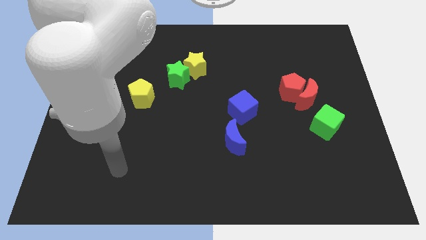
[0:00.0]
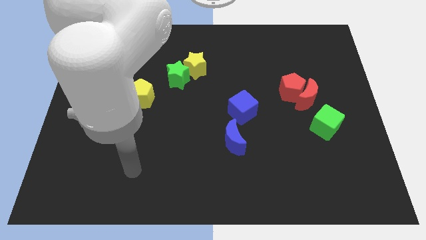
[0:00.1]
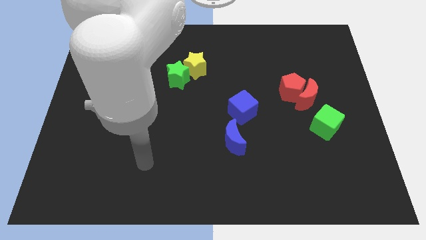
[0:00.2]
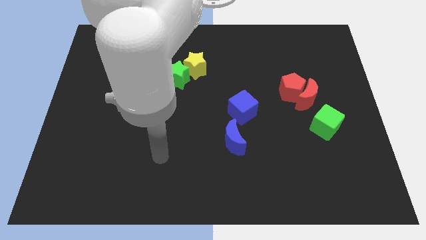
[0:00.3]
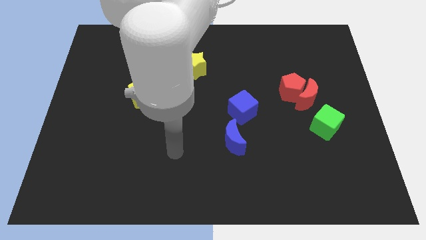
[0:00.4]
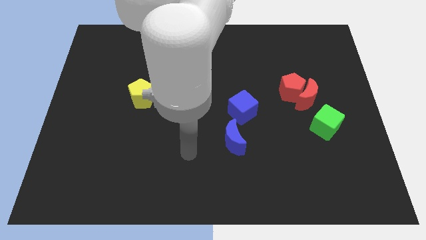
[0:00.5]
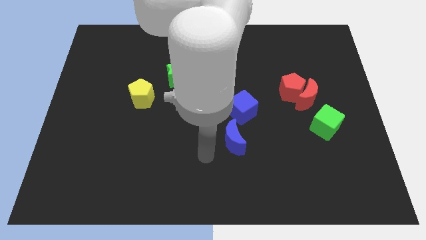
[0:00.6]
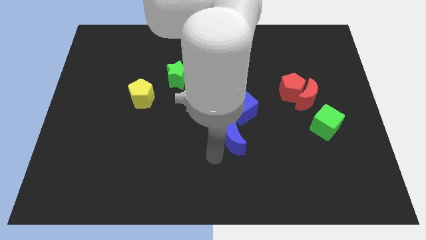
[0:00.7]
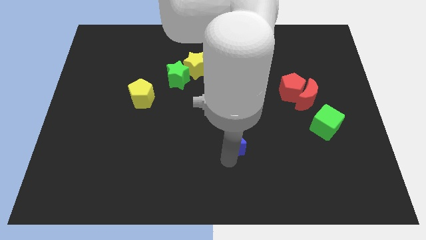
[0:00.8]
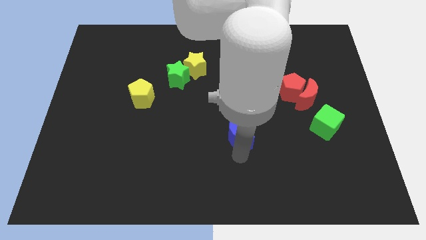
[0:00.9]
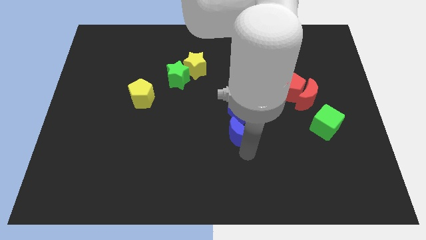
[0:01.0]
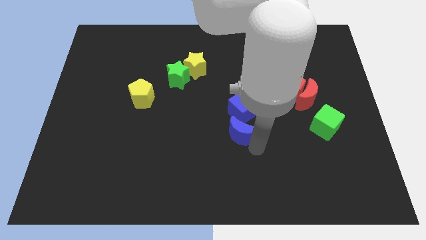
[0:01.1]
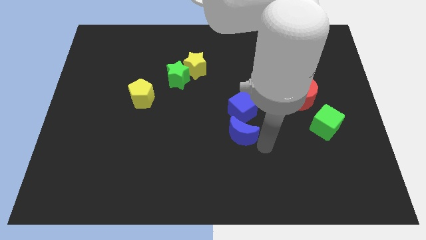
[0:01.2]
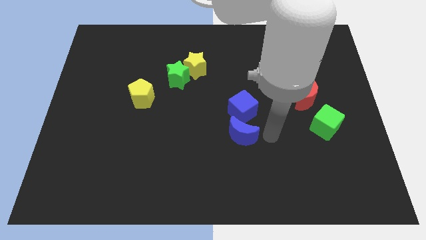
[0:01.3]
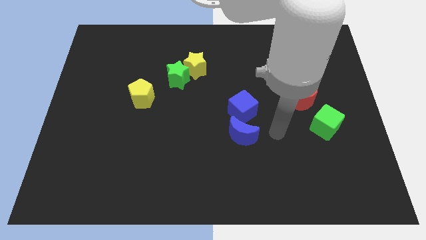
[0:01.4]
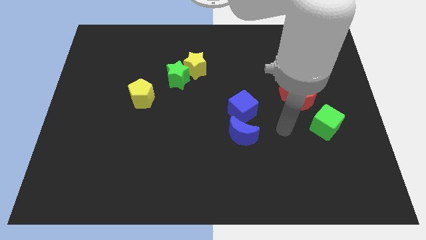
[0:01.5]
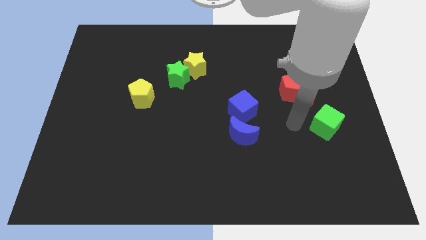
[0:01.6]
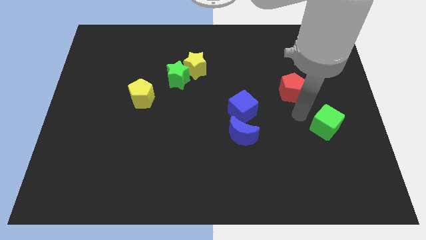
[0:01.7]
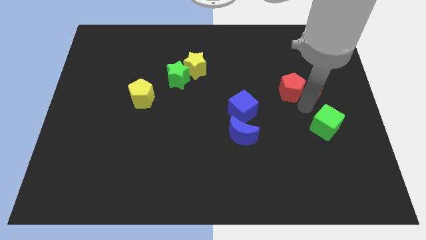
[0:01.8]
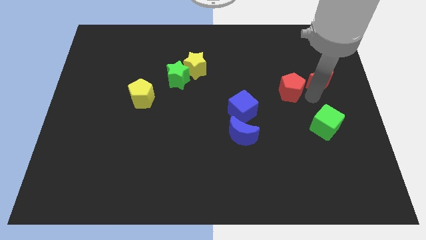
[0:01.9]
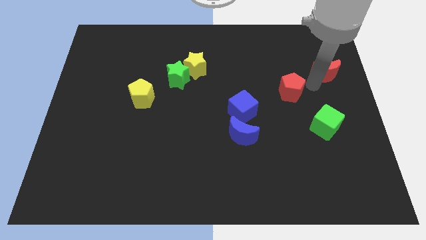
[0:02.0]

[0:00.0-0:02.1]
move the red pentagon away from the red moon

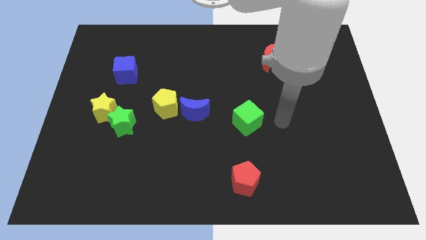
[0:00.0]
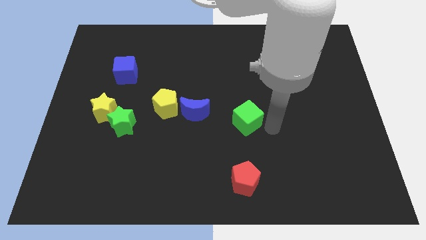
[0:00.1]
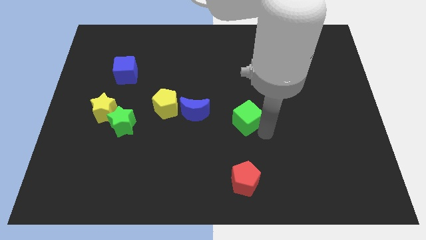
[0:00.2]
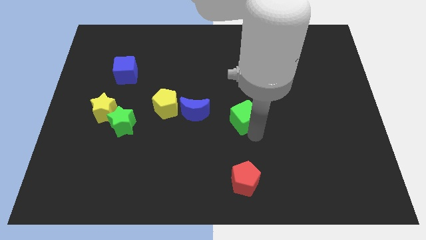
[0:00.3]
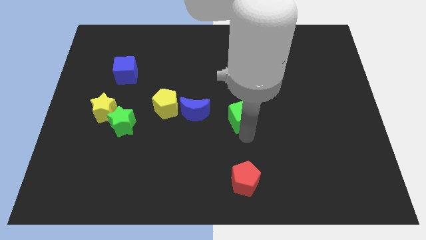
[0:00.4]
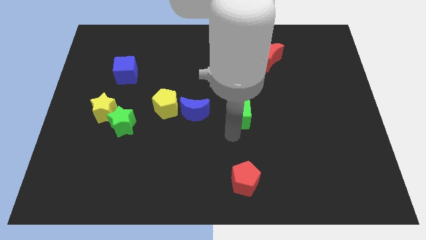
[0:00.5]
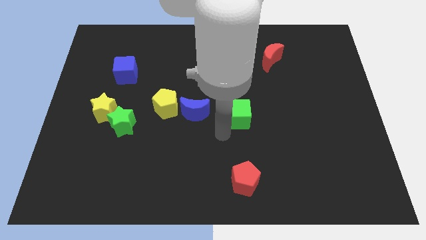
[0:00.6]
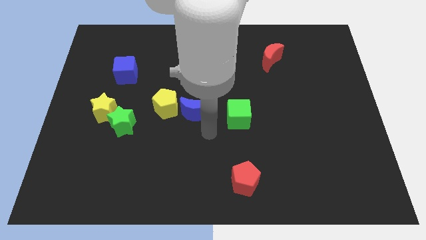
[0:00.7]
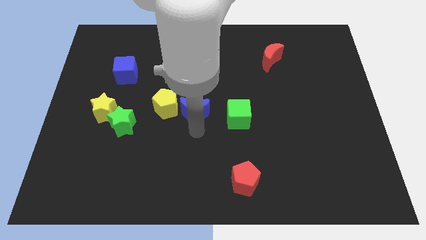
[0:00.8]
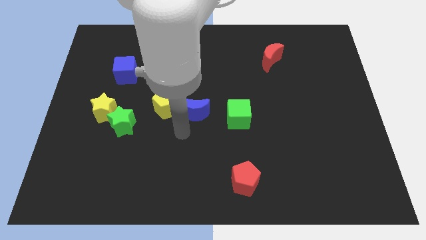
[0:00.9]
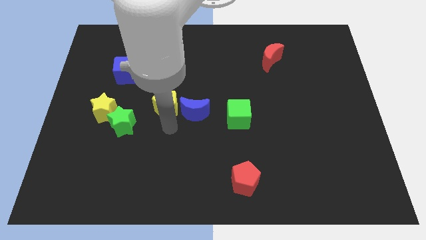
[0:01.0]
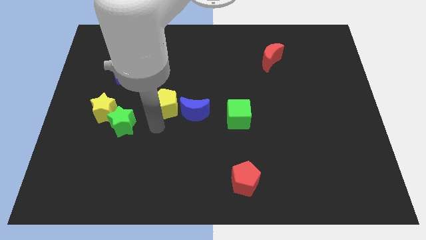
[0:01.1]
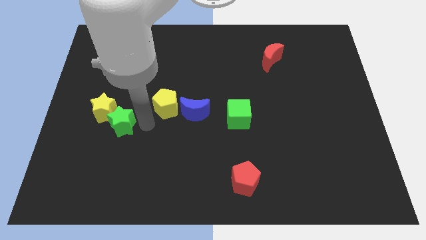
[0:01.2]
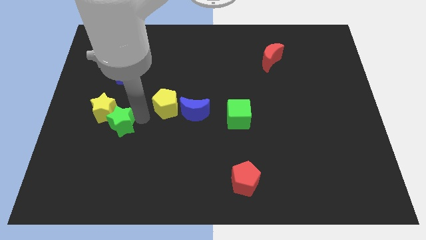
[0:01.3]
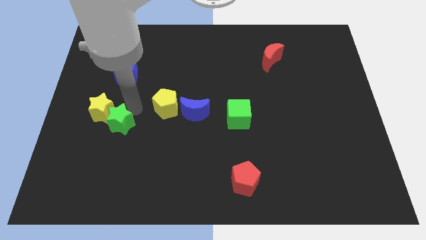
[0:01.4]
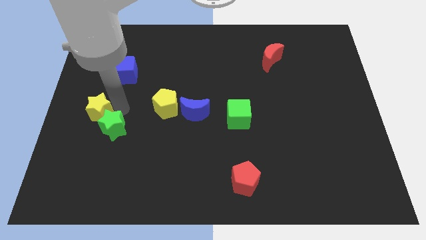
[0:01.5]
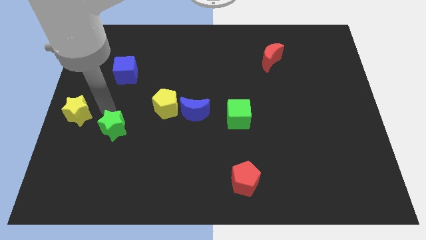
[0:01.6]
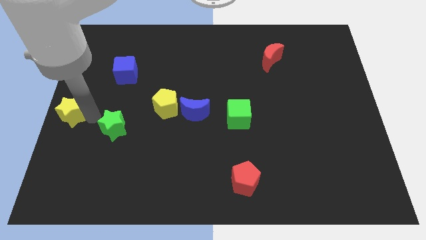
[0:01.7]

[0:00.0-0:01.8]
separate the green star from the yellow star

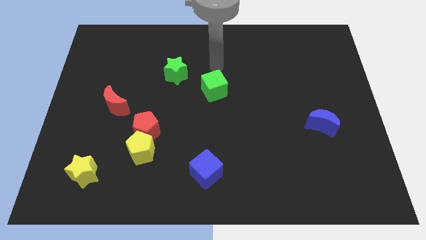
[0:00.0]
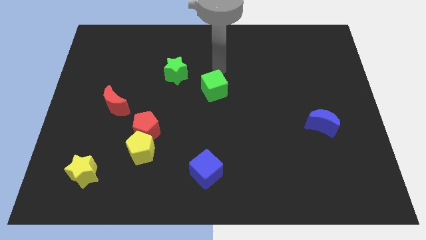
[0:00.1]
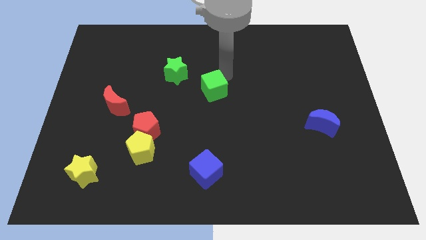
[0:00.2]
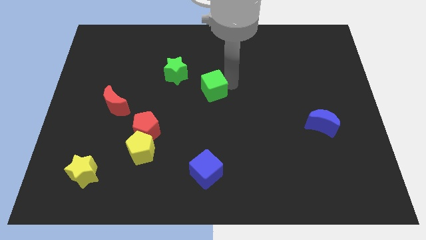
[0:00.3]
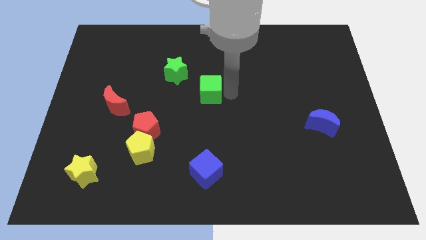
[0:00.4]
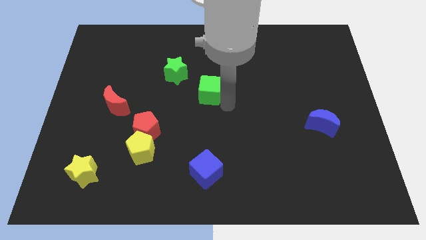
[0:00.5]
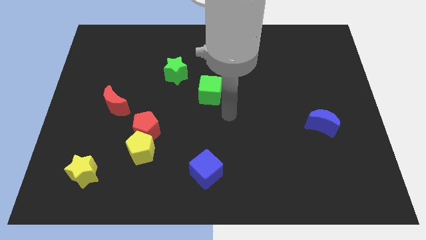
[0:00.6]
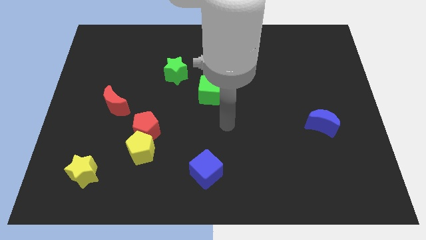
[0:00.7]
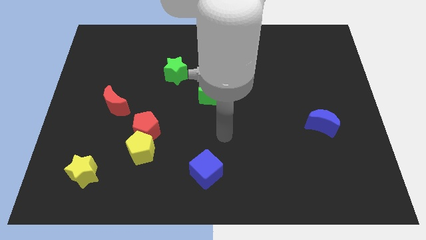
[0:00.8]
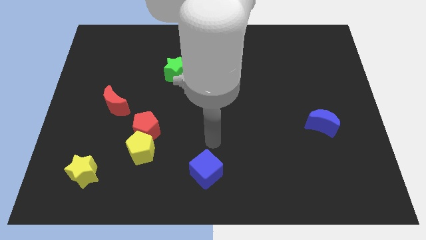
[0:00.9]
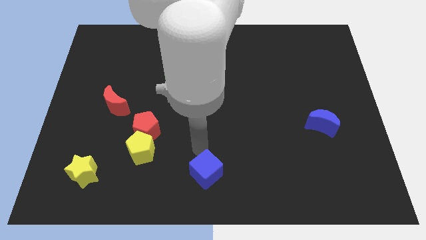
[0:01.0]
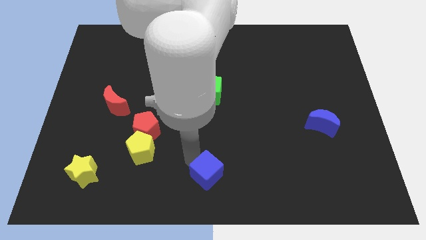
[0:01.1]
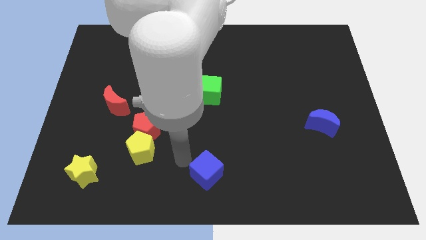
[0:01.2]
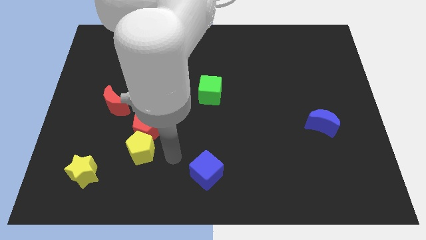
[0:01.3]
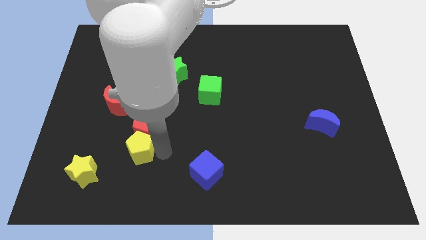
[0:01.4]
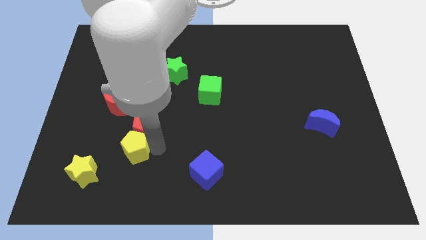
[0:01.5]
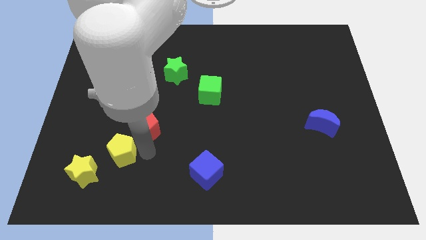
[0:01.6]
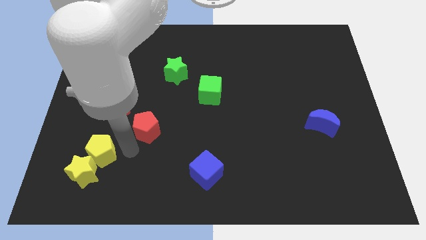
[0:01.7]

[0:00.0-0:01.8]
pull the red pentagon apart from the yellow pentagon

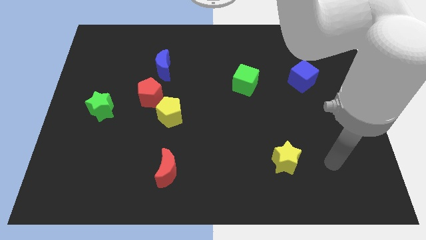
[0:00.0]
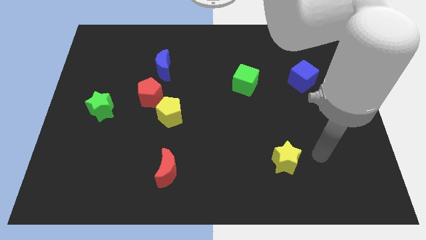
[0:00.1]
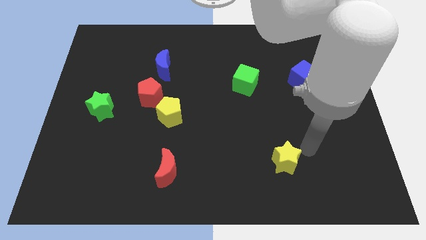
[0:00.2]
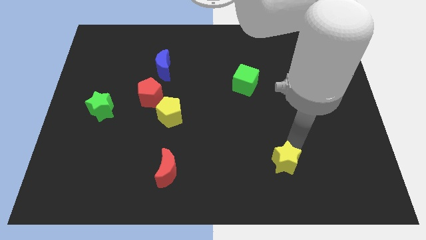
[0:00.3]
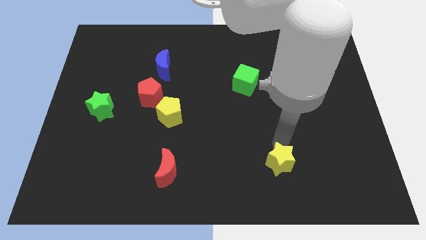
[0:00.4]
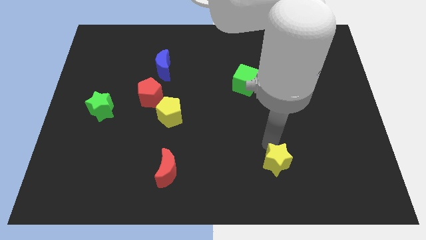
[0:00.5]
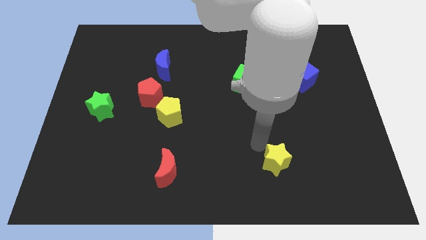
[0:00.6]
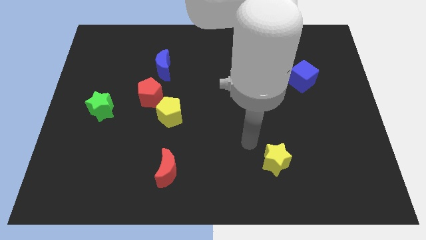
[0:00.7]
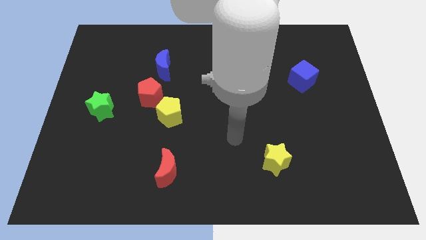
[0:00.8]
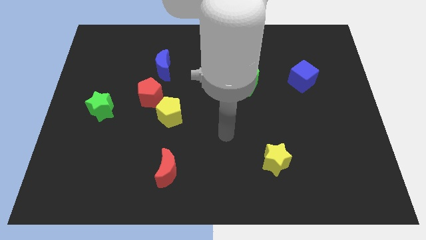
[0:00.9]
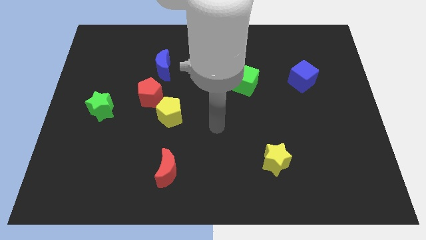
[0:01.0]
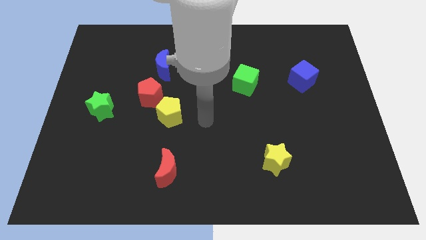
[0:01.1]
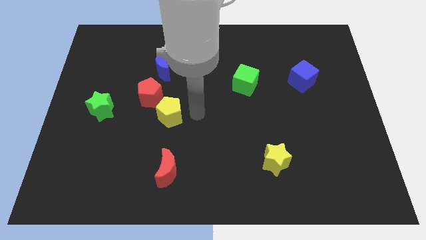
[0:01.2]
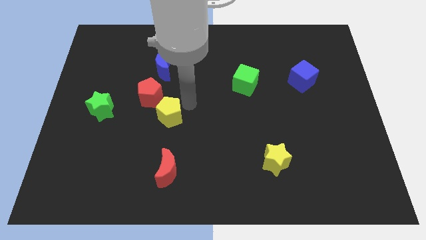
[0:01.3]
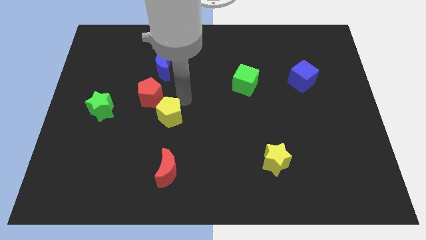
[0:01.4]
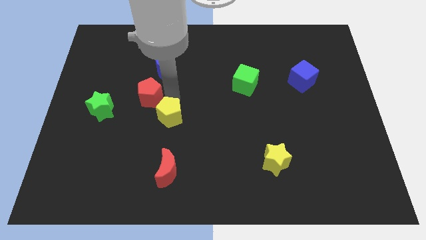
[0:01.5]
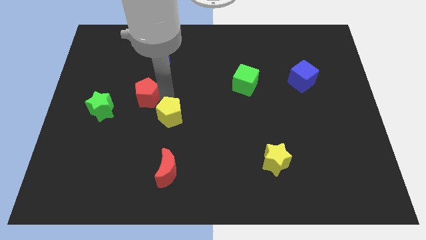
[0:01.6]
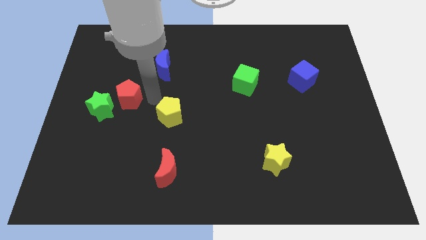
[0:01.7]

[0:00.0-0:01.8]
move the yellow pentagon away from the red pentagon

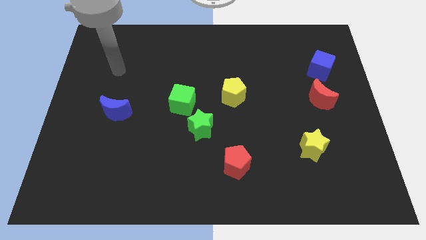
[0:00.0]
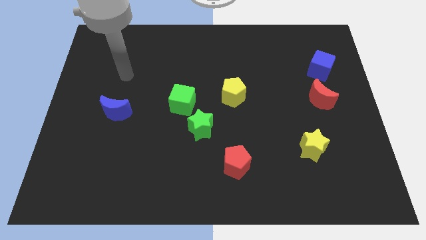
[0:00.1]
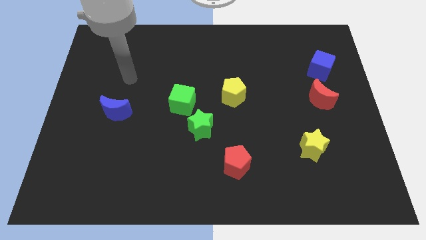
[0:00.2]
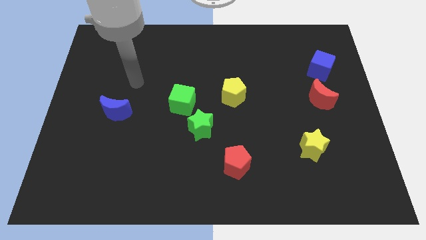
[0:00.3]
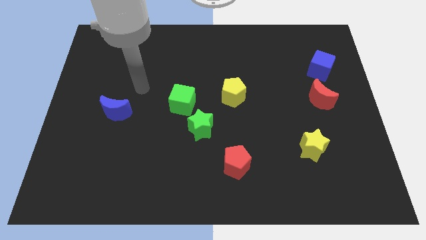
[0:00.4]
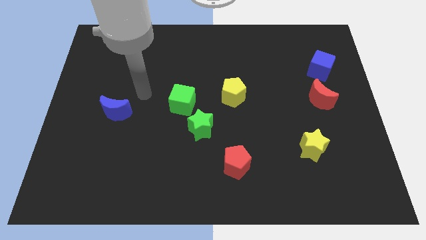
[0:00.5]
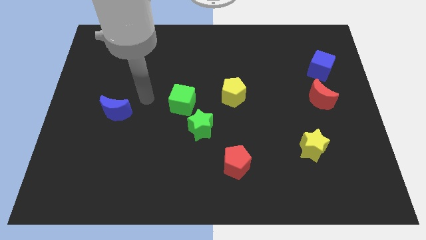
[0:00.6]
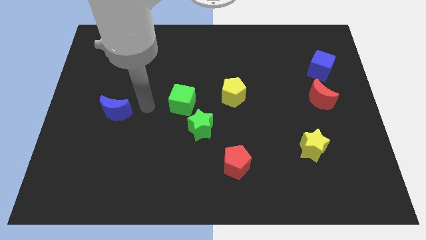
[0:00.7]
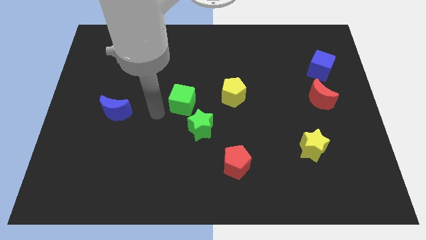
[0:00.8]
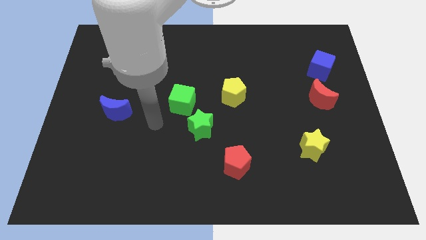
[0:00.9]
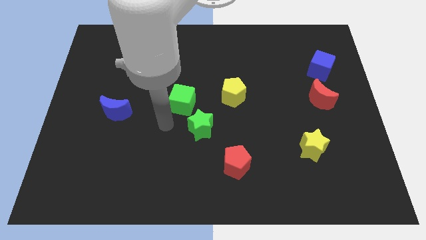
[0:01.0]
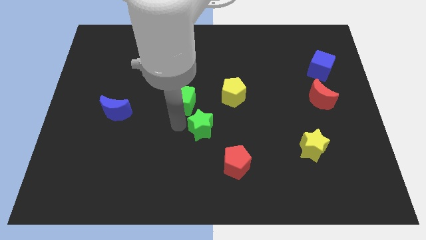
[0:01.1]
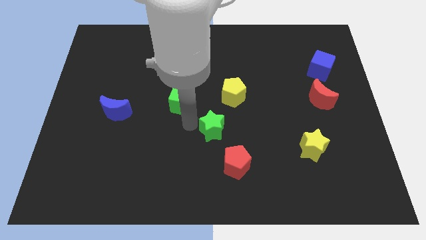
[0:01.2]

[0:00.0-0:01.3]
move the green cube away from the green star

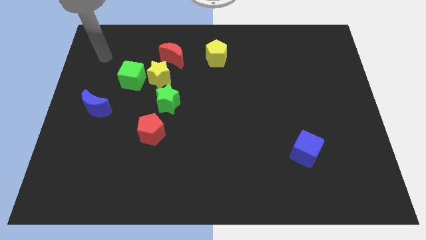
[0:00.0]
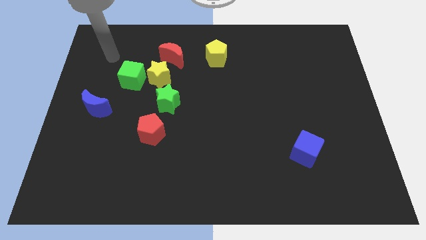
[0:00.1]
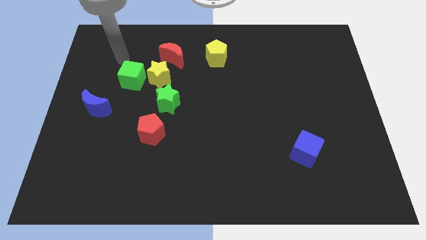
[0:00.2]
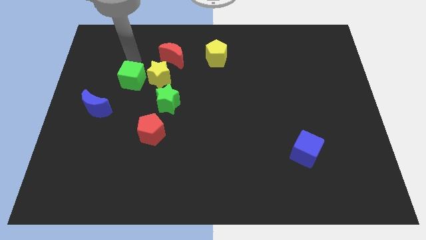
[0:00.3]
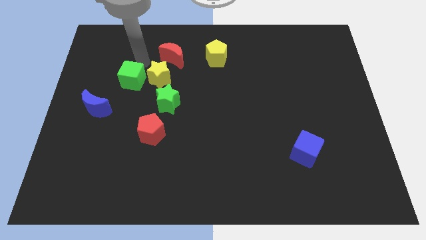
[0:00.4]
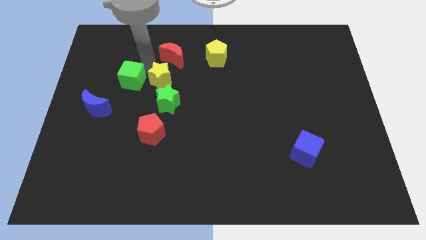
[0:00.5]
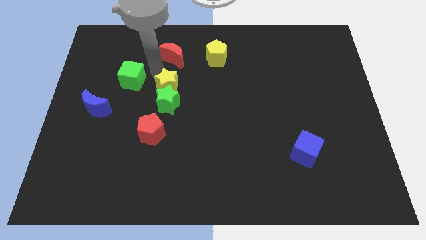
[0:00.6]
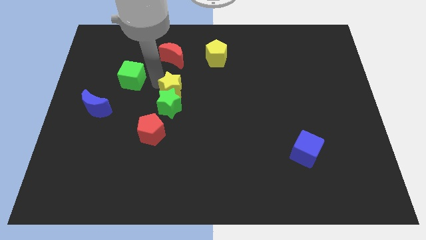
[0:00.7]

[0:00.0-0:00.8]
separate the green cube from the yellow star
